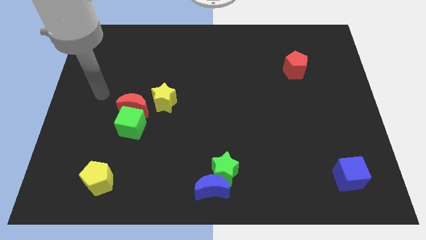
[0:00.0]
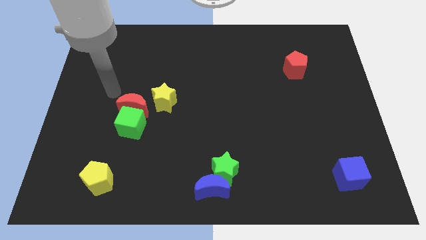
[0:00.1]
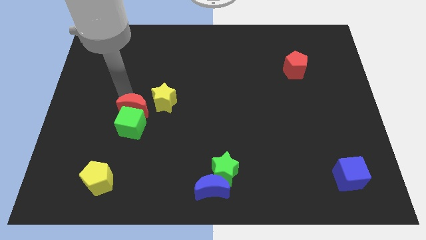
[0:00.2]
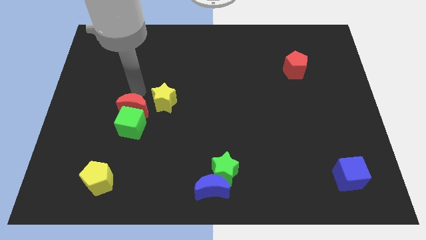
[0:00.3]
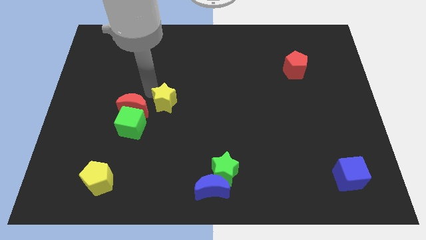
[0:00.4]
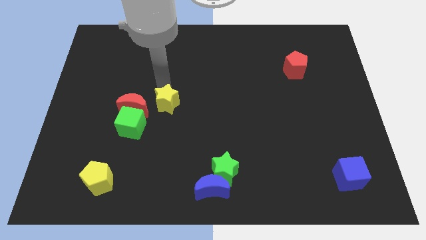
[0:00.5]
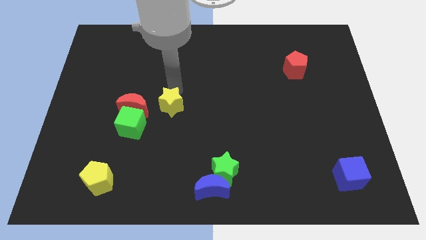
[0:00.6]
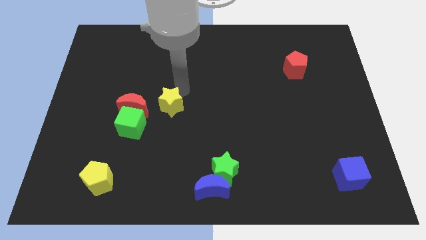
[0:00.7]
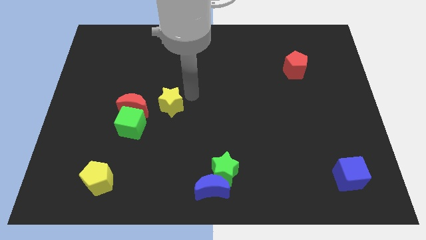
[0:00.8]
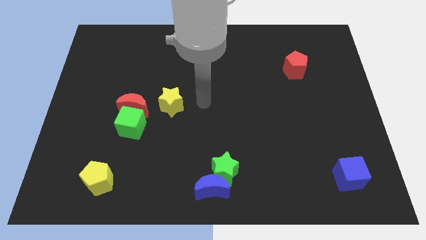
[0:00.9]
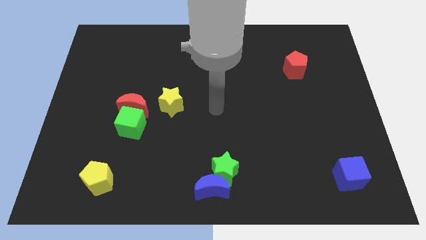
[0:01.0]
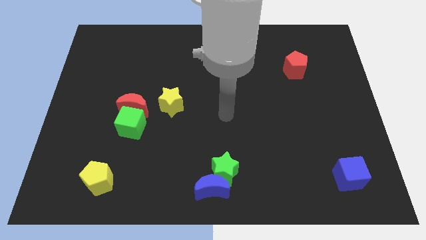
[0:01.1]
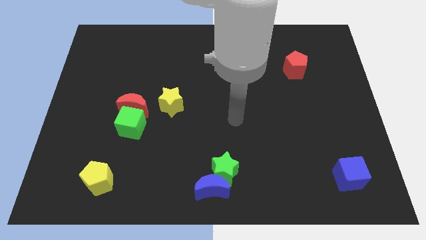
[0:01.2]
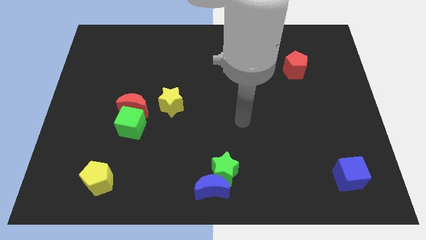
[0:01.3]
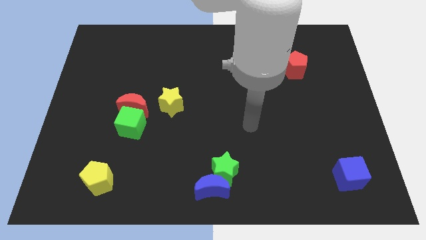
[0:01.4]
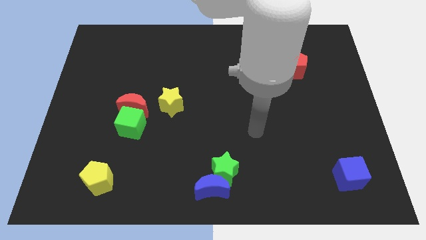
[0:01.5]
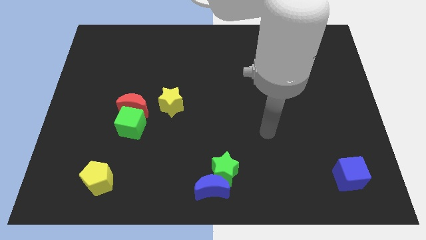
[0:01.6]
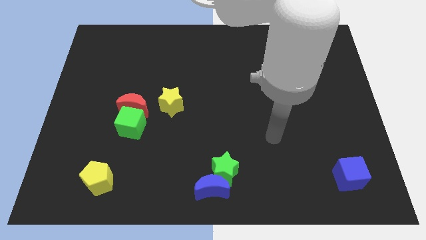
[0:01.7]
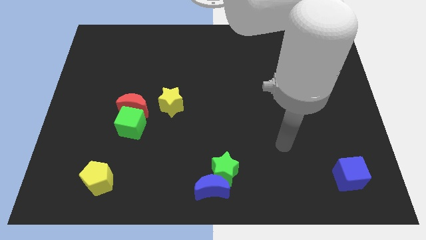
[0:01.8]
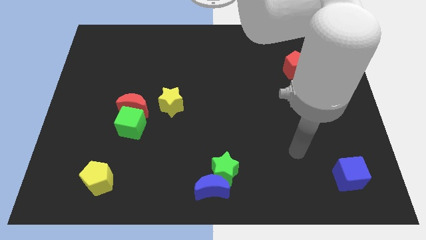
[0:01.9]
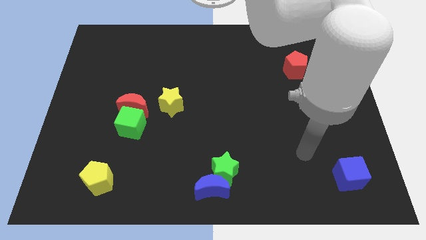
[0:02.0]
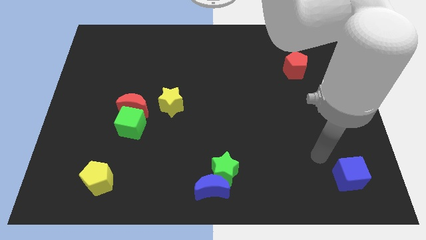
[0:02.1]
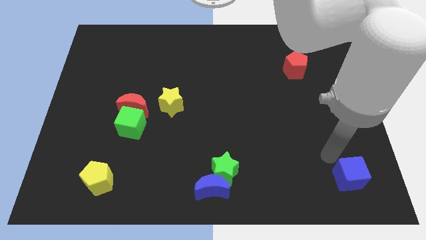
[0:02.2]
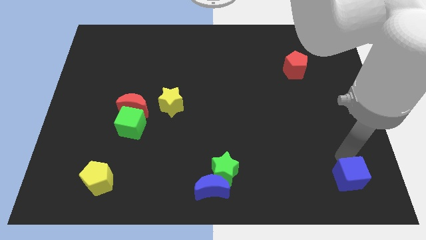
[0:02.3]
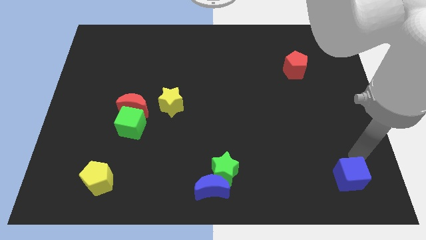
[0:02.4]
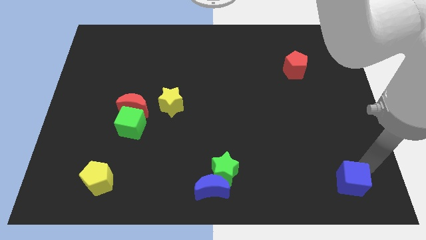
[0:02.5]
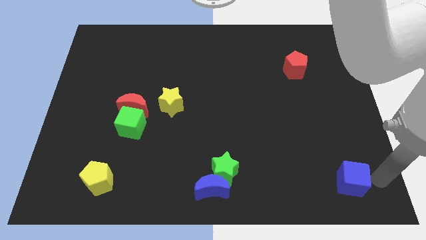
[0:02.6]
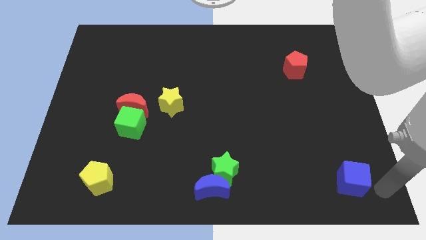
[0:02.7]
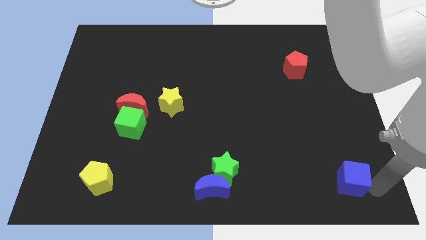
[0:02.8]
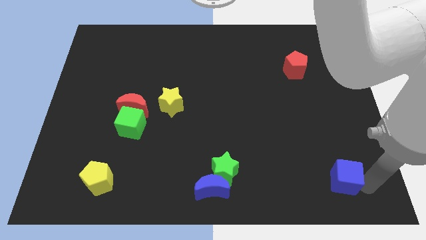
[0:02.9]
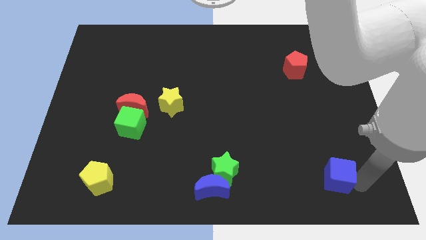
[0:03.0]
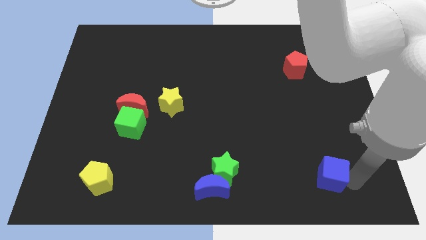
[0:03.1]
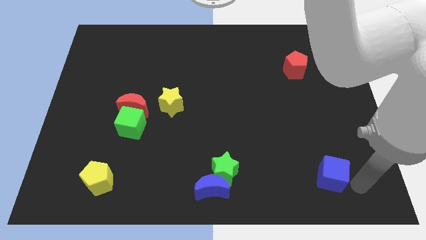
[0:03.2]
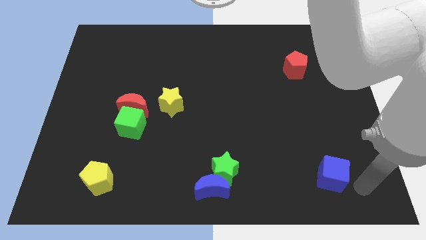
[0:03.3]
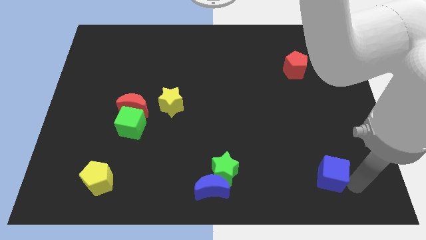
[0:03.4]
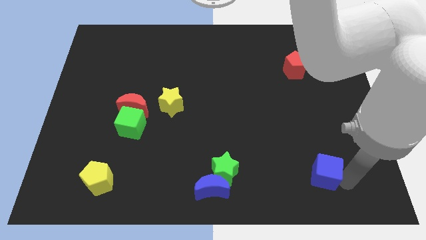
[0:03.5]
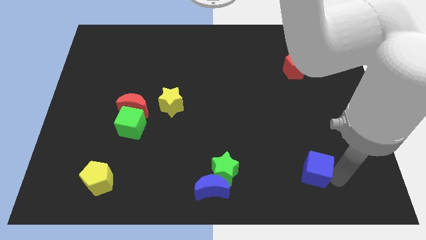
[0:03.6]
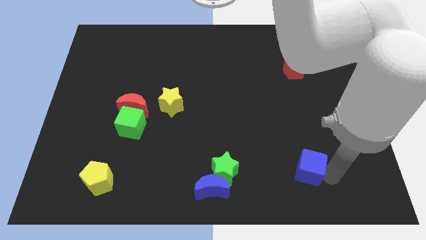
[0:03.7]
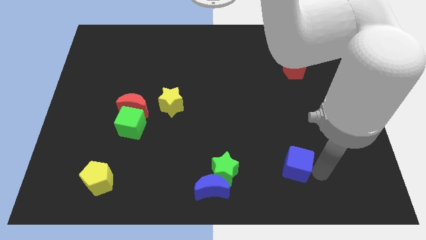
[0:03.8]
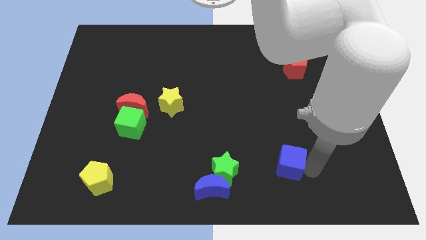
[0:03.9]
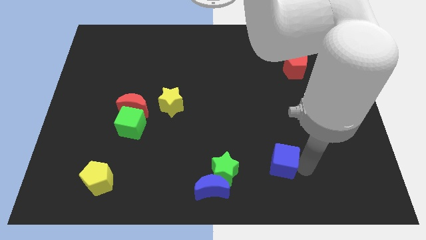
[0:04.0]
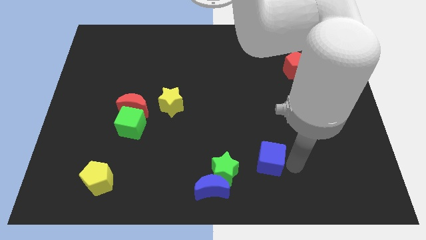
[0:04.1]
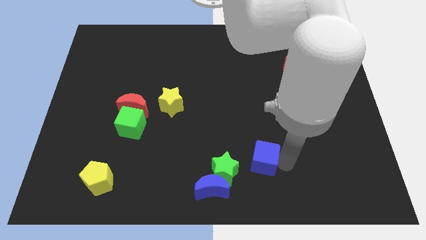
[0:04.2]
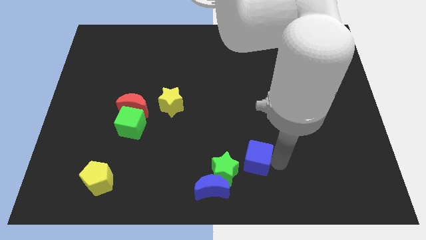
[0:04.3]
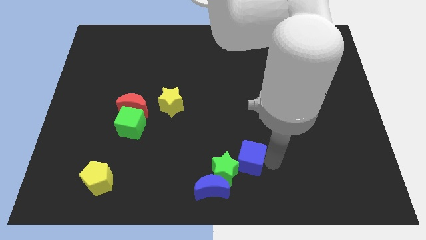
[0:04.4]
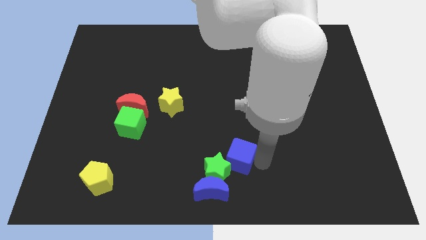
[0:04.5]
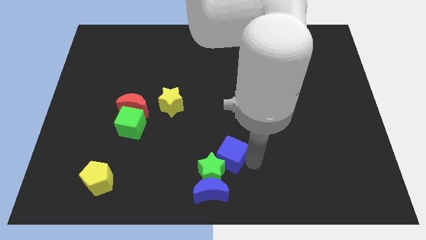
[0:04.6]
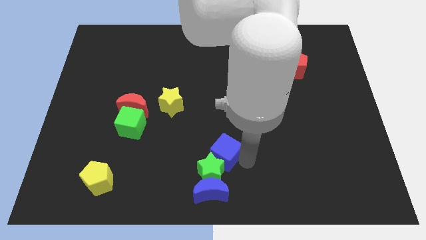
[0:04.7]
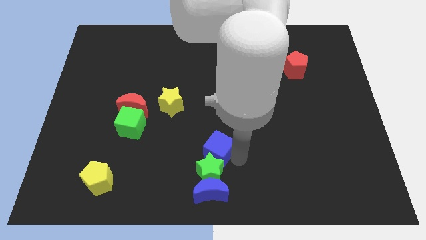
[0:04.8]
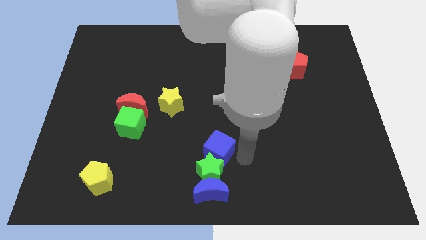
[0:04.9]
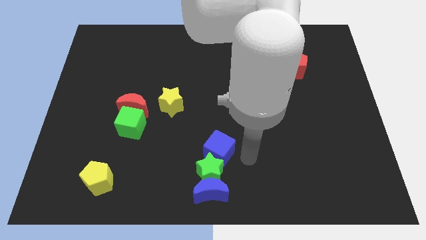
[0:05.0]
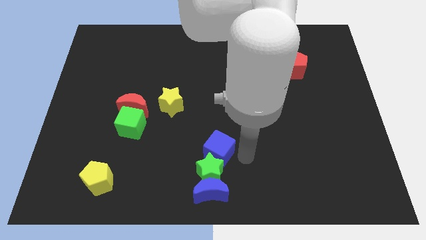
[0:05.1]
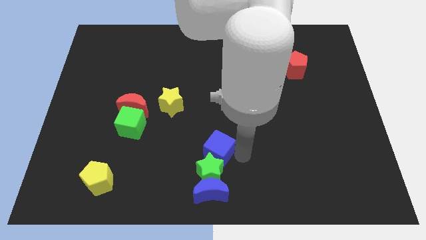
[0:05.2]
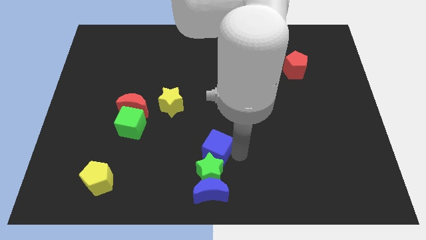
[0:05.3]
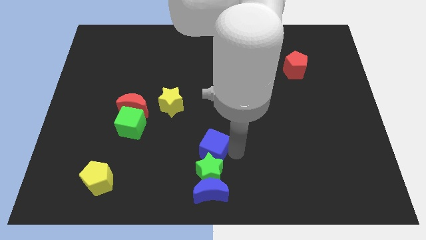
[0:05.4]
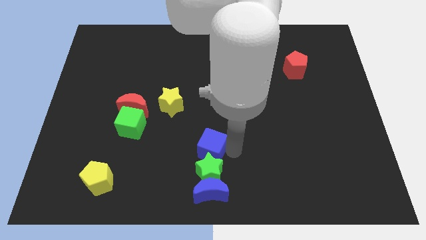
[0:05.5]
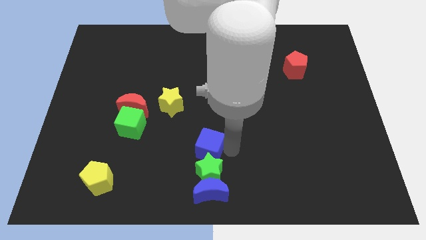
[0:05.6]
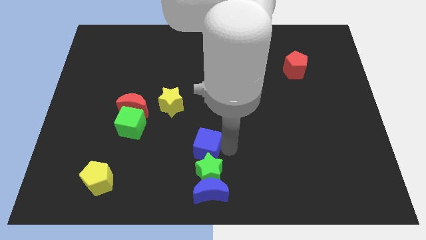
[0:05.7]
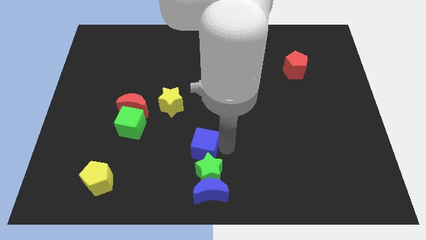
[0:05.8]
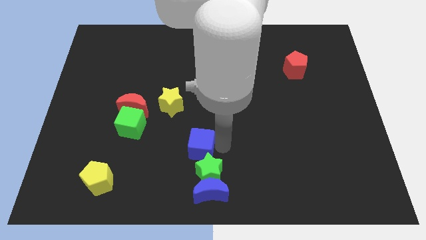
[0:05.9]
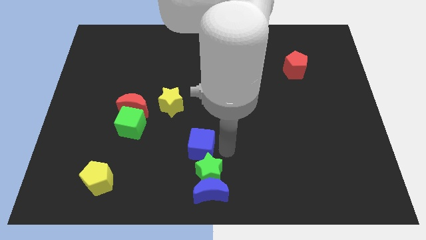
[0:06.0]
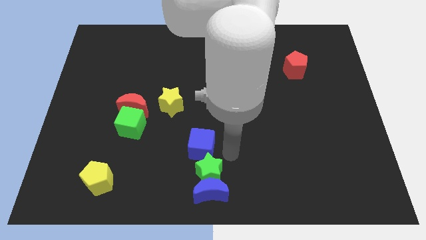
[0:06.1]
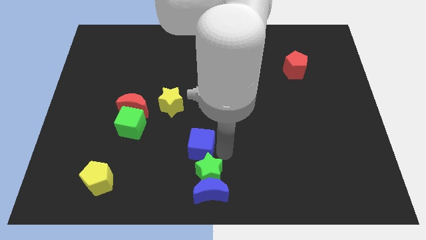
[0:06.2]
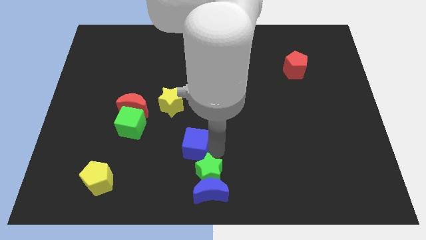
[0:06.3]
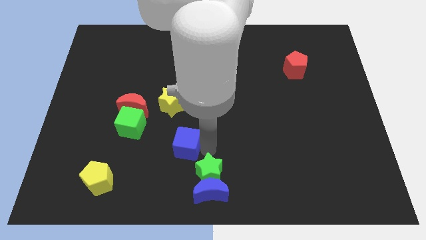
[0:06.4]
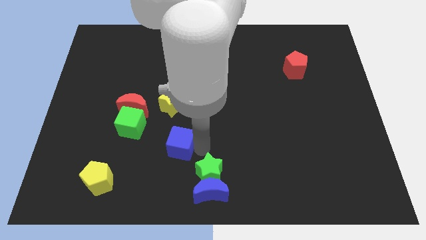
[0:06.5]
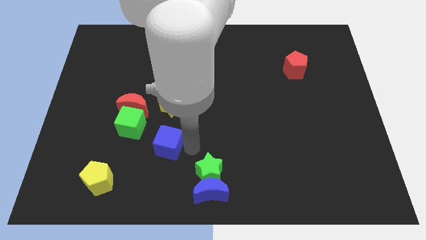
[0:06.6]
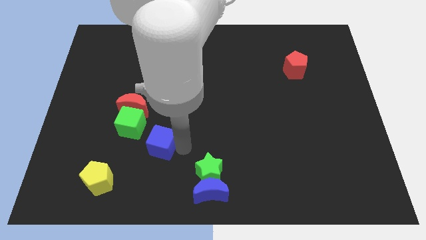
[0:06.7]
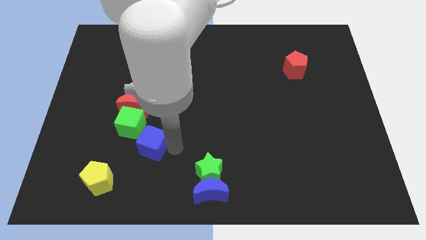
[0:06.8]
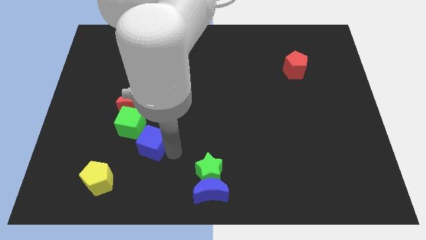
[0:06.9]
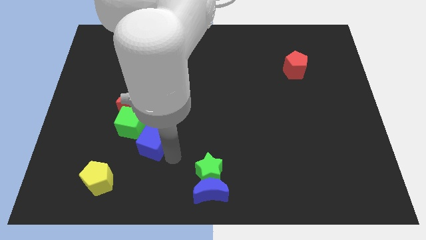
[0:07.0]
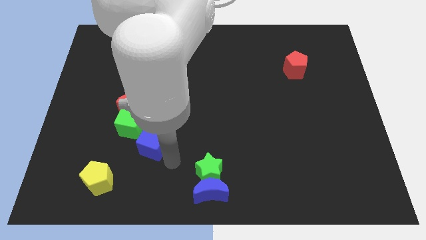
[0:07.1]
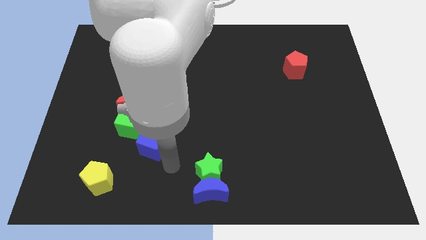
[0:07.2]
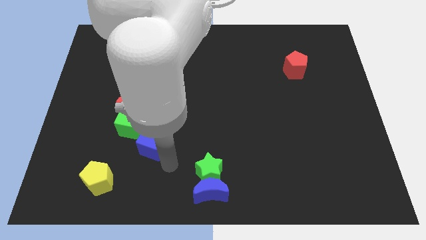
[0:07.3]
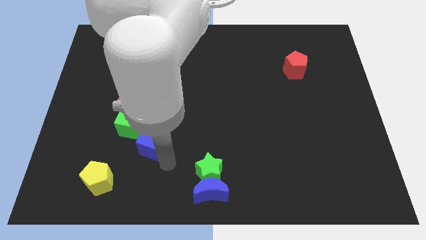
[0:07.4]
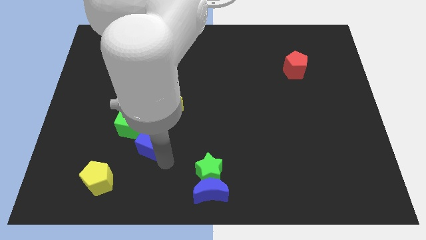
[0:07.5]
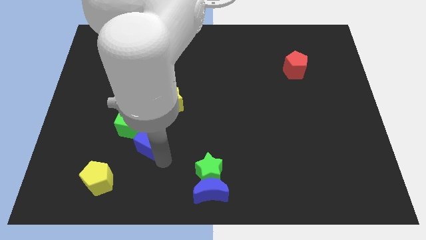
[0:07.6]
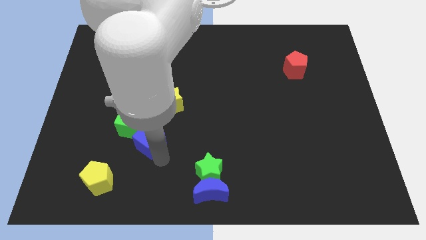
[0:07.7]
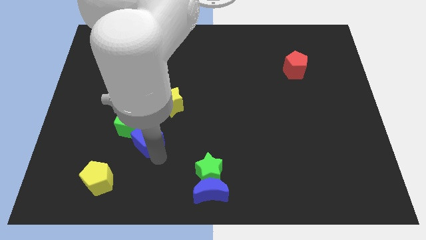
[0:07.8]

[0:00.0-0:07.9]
slide the blue cube towards the green cube
